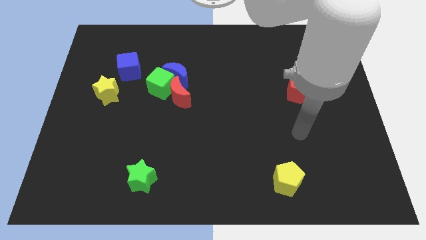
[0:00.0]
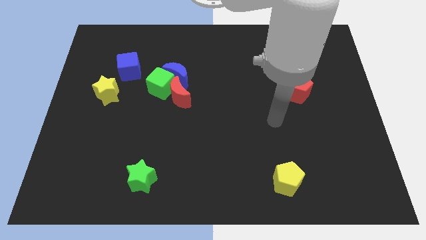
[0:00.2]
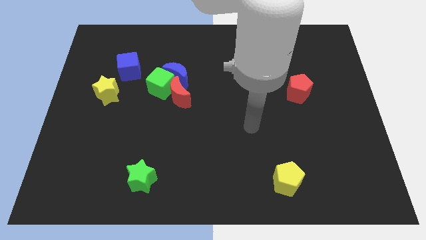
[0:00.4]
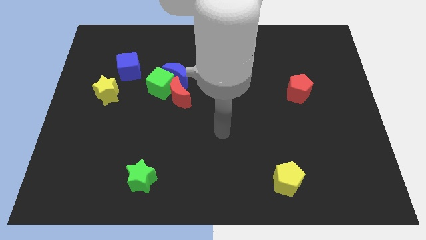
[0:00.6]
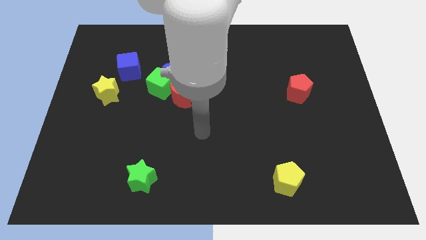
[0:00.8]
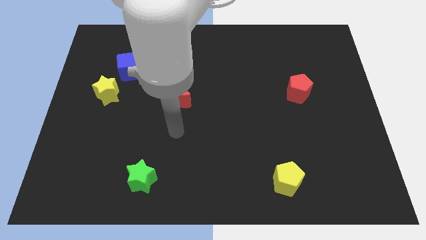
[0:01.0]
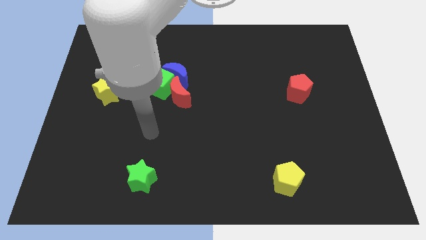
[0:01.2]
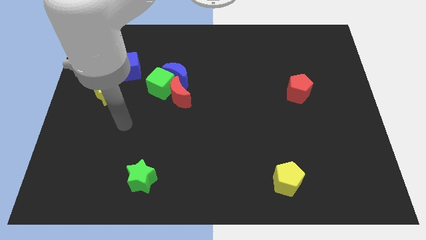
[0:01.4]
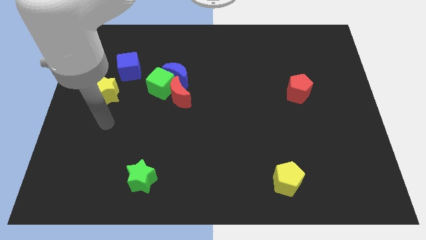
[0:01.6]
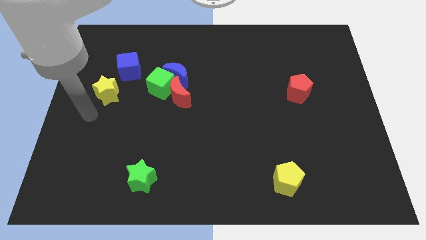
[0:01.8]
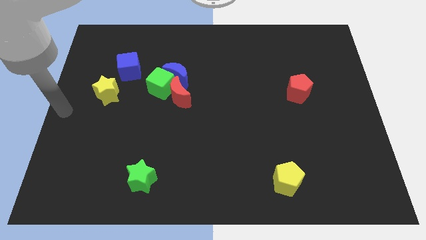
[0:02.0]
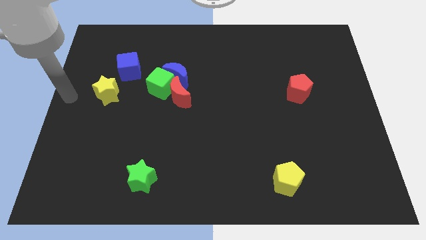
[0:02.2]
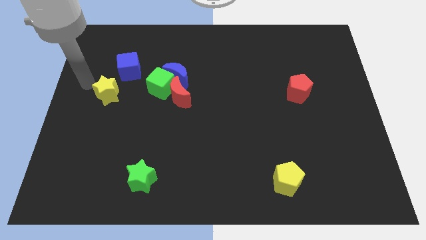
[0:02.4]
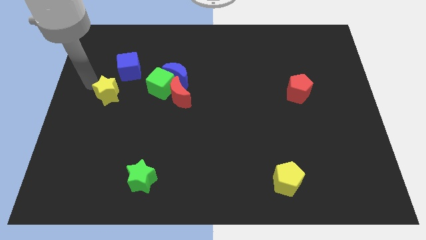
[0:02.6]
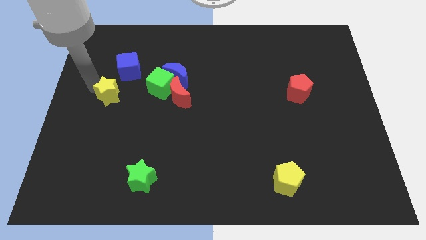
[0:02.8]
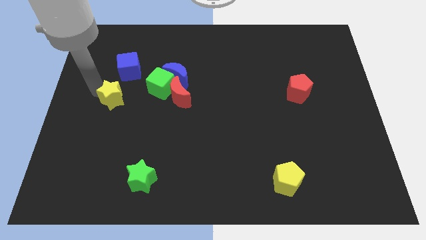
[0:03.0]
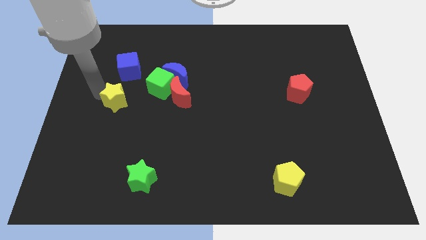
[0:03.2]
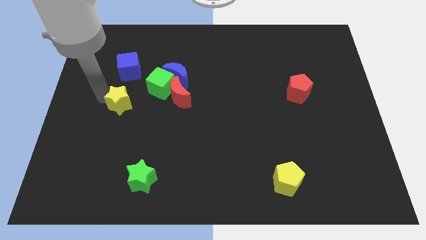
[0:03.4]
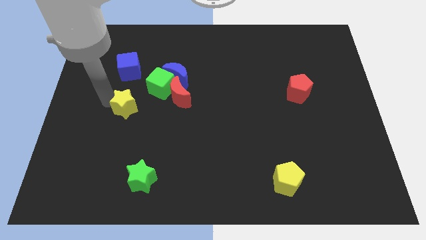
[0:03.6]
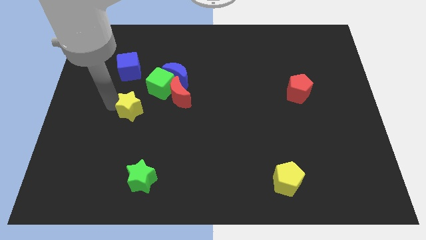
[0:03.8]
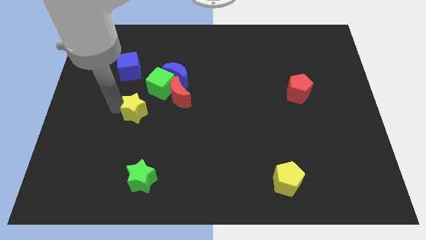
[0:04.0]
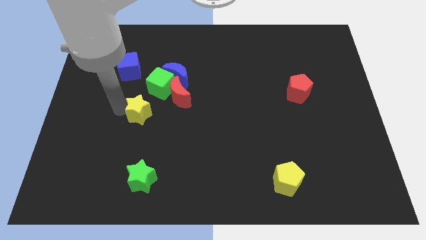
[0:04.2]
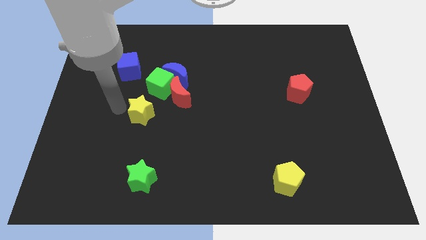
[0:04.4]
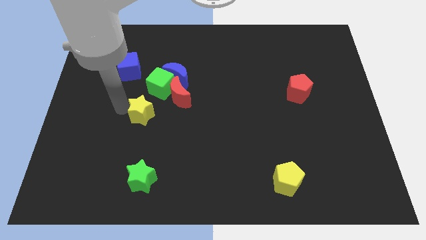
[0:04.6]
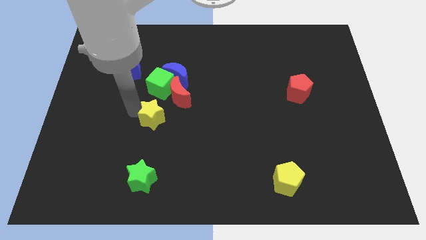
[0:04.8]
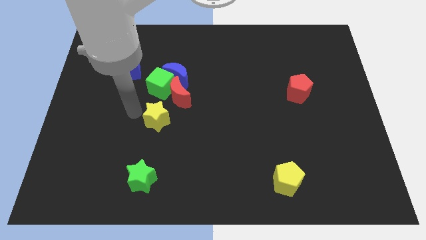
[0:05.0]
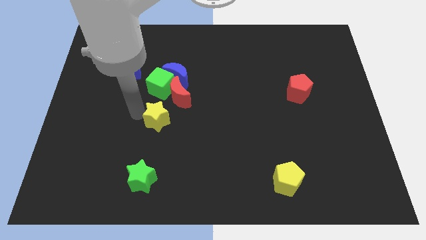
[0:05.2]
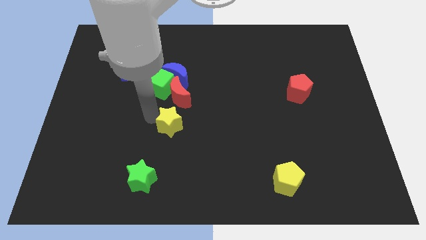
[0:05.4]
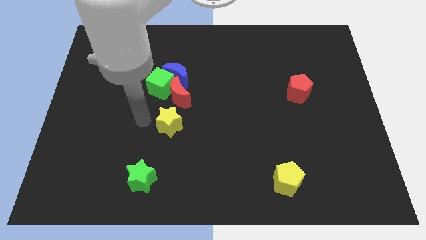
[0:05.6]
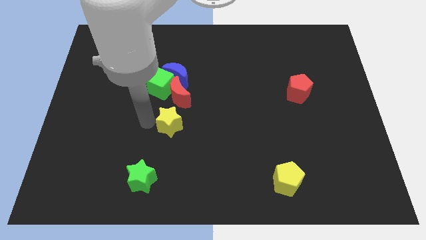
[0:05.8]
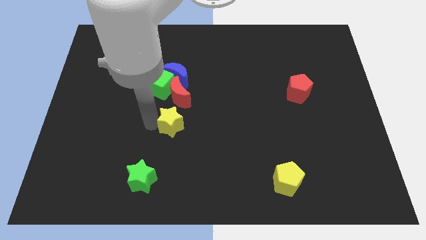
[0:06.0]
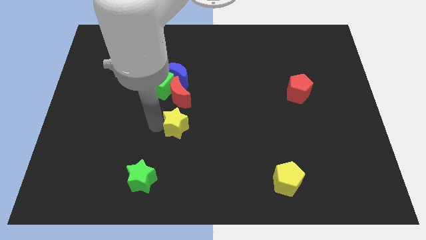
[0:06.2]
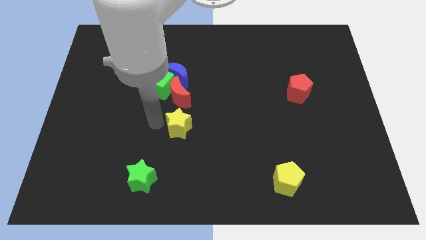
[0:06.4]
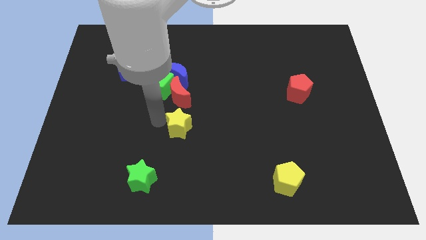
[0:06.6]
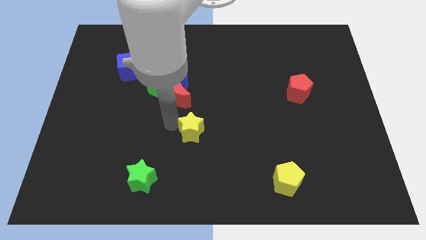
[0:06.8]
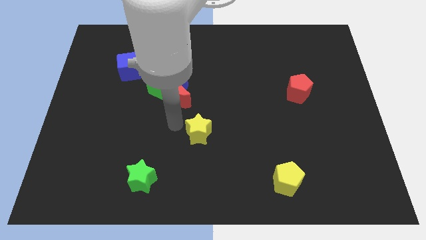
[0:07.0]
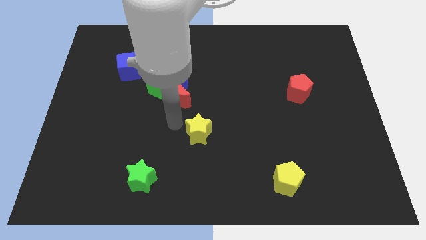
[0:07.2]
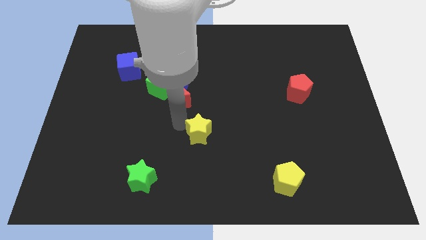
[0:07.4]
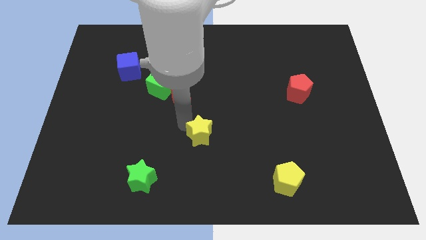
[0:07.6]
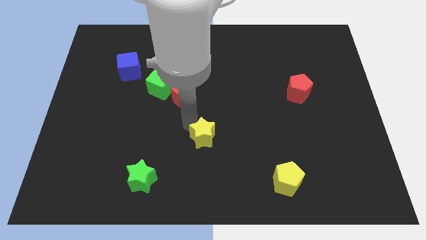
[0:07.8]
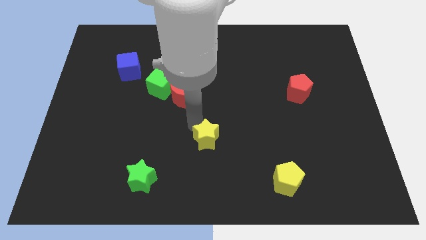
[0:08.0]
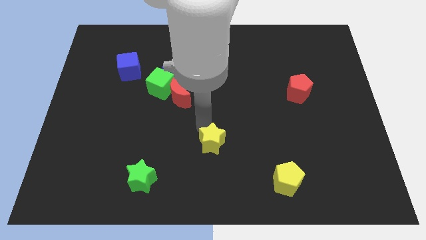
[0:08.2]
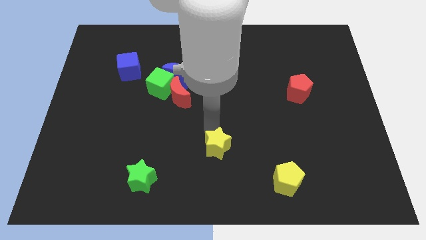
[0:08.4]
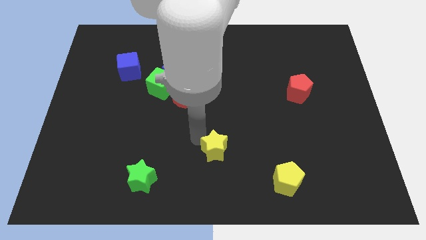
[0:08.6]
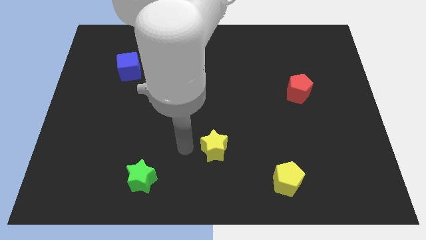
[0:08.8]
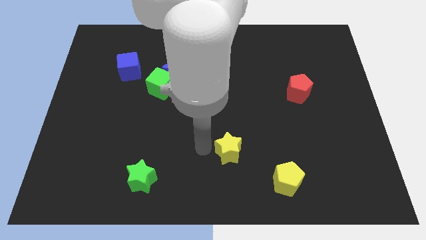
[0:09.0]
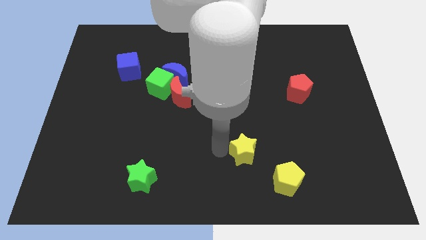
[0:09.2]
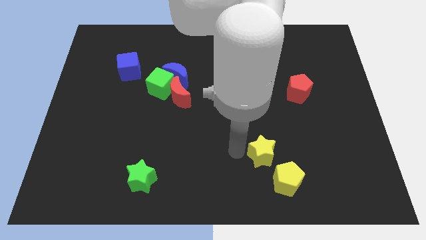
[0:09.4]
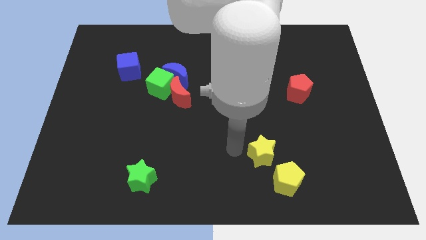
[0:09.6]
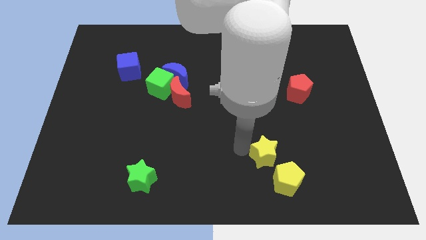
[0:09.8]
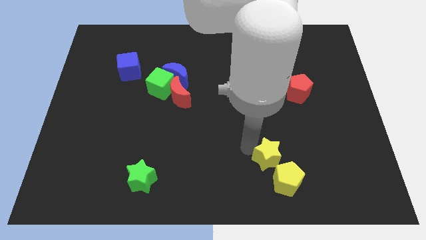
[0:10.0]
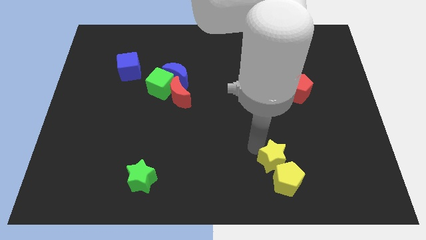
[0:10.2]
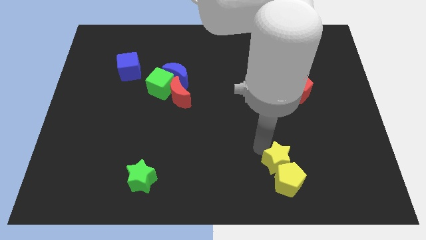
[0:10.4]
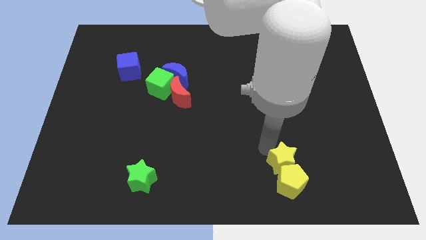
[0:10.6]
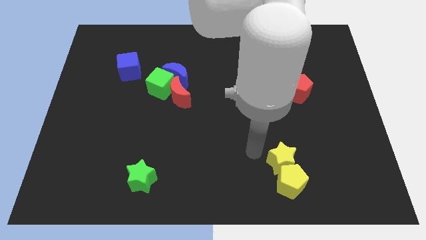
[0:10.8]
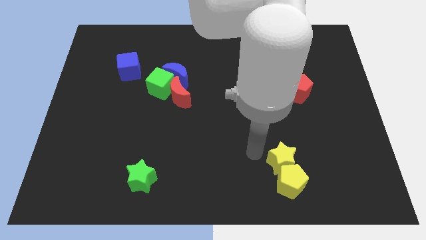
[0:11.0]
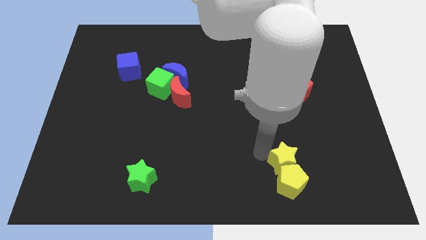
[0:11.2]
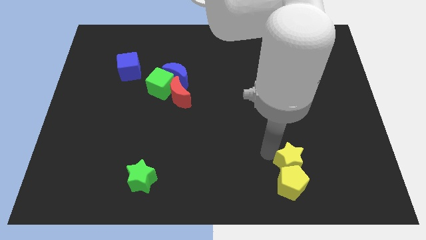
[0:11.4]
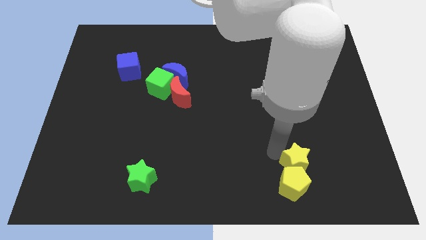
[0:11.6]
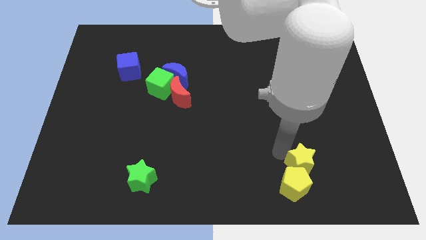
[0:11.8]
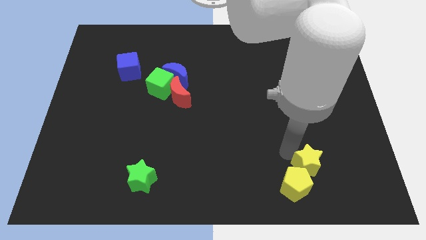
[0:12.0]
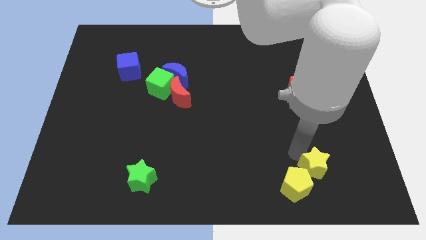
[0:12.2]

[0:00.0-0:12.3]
move the yellow star to the right of the yellow pentagon

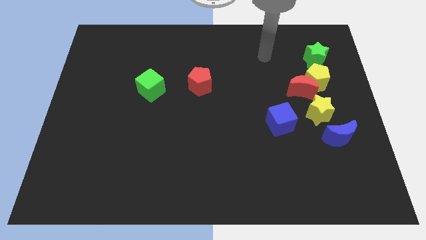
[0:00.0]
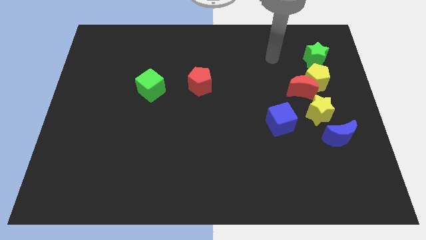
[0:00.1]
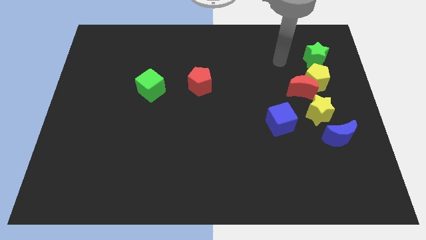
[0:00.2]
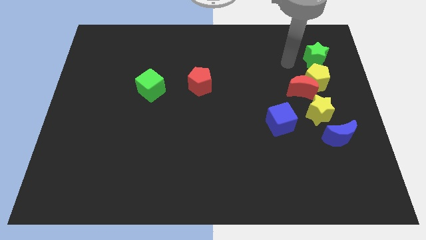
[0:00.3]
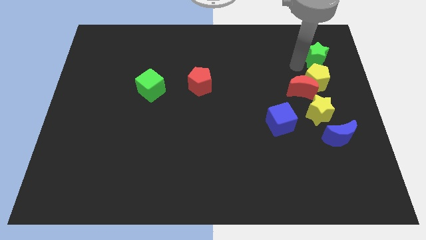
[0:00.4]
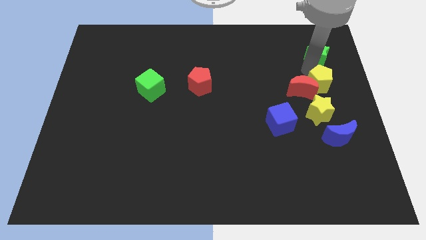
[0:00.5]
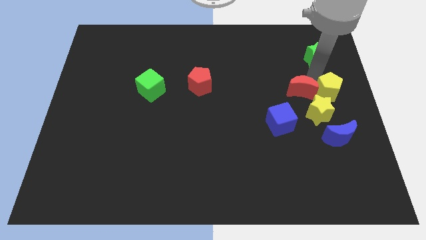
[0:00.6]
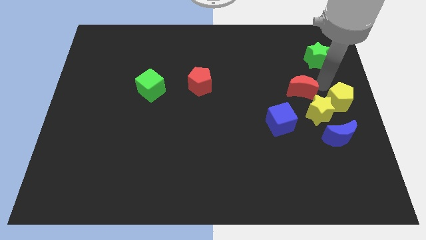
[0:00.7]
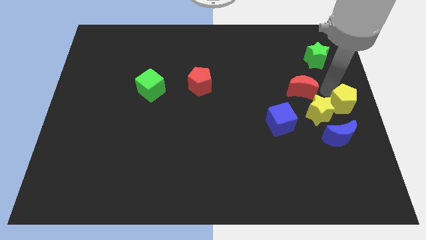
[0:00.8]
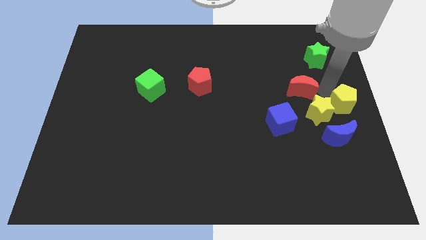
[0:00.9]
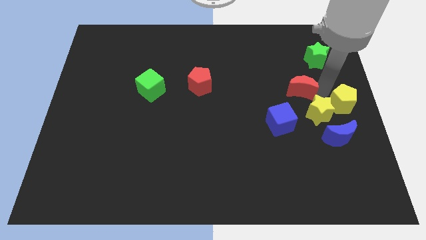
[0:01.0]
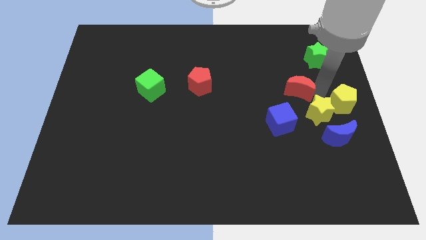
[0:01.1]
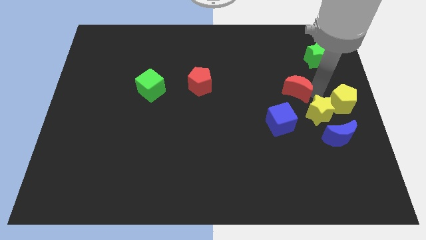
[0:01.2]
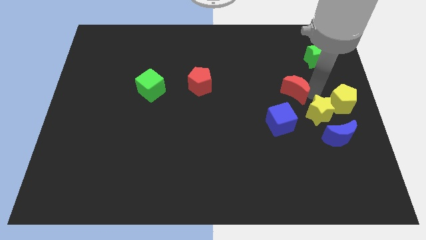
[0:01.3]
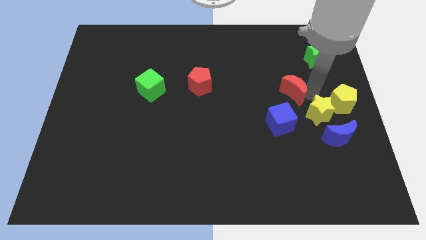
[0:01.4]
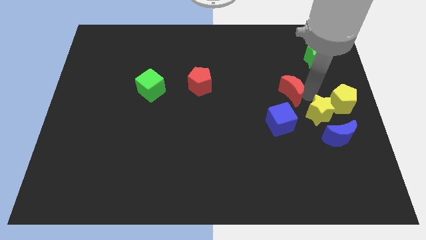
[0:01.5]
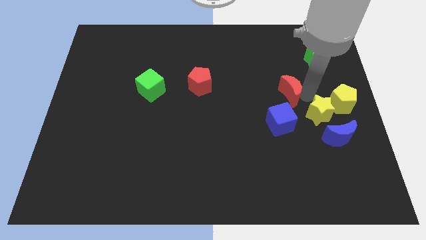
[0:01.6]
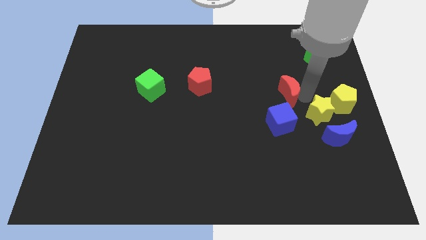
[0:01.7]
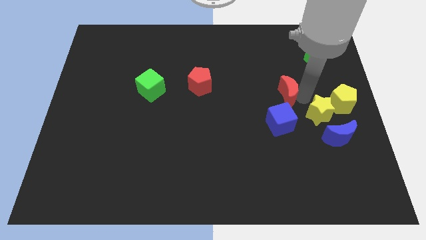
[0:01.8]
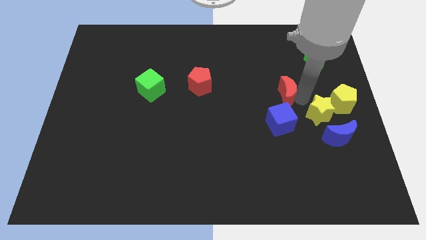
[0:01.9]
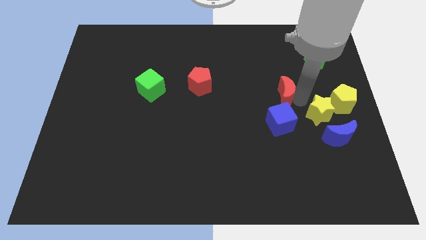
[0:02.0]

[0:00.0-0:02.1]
put the red moon left of the yellow star
